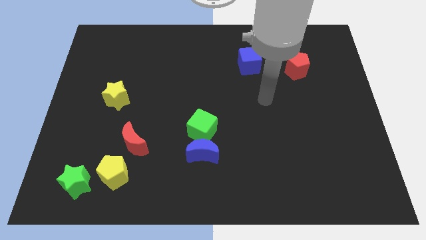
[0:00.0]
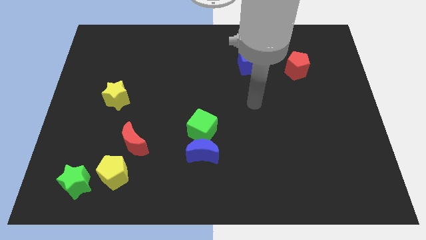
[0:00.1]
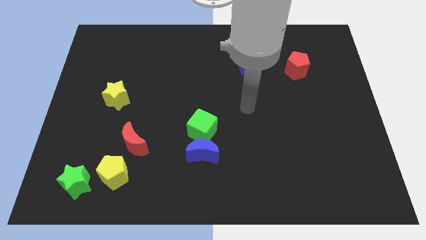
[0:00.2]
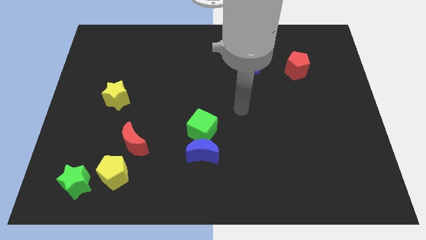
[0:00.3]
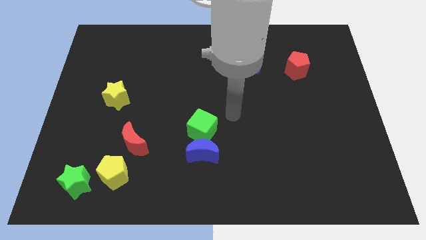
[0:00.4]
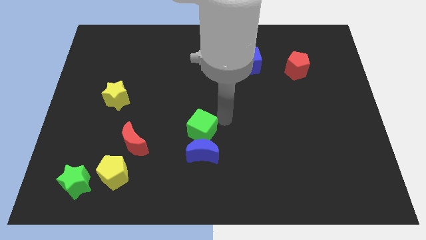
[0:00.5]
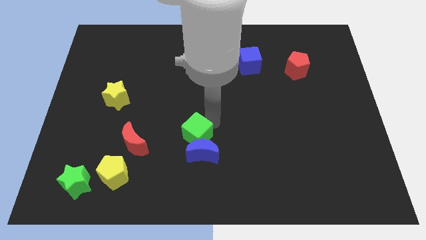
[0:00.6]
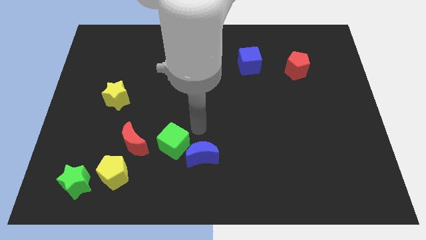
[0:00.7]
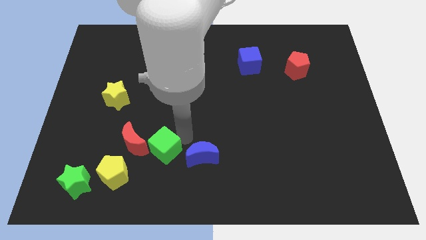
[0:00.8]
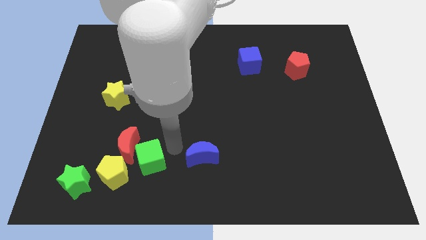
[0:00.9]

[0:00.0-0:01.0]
separate the blue moon from the green cube

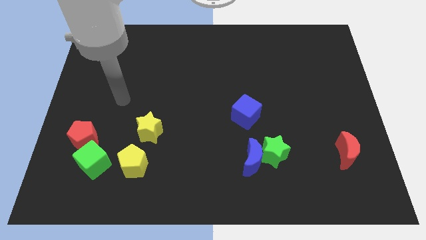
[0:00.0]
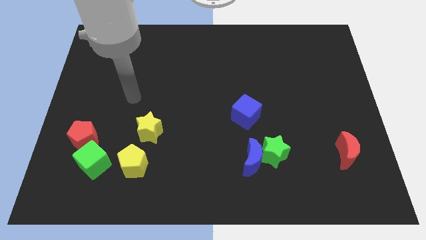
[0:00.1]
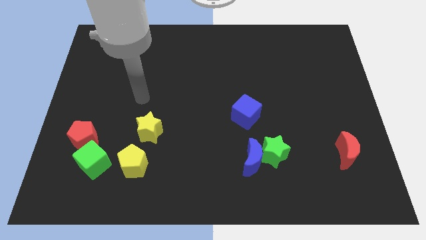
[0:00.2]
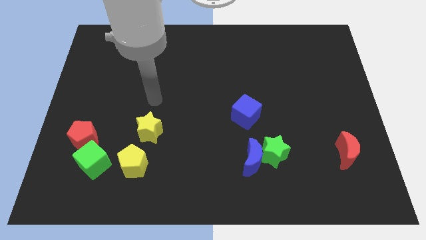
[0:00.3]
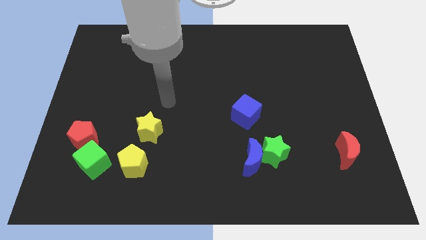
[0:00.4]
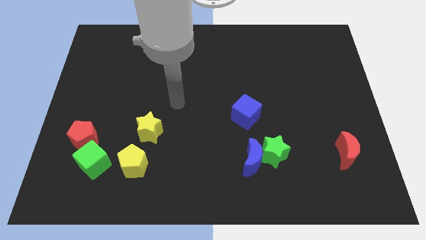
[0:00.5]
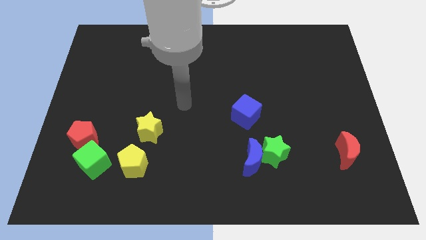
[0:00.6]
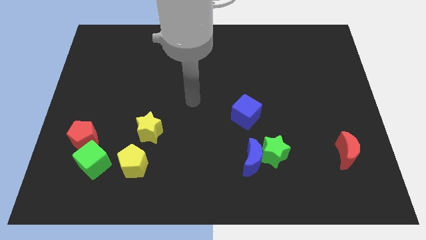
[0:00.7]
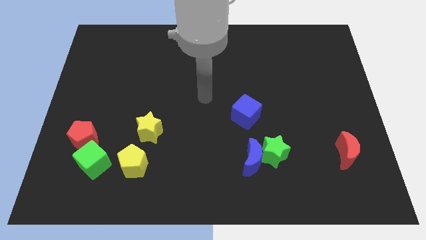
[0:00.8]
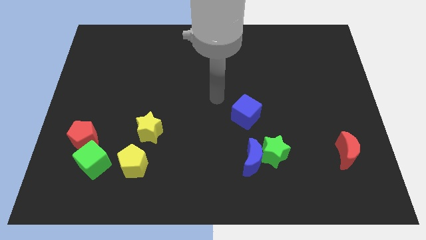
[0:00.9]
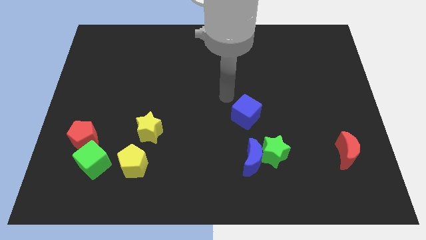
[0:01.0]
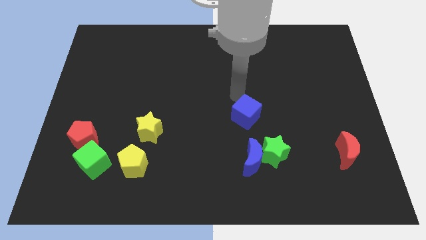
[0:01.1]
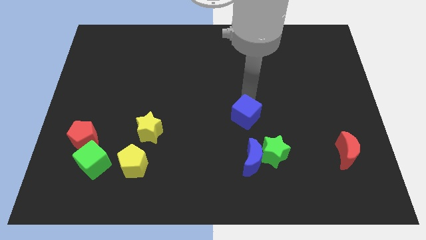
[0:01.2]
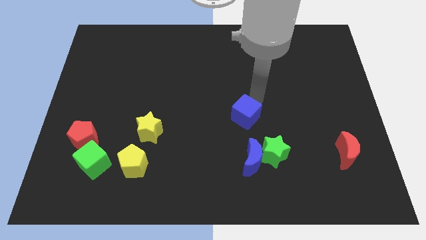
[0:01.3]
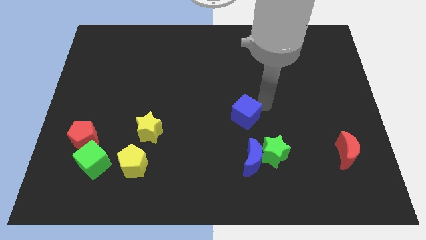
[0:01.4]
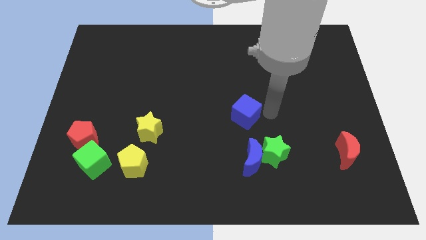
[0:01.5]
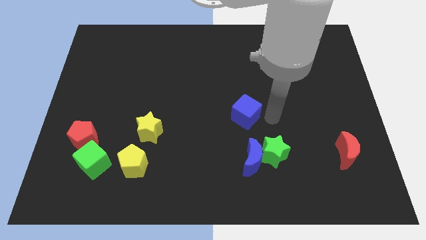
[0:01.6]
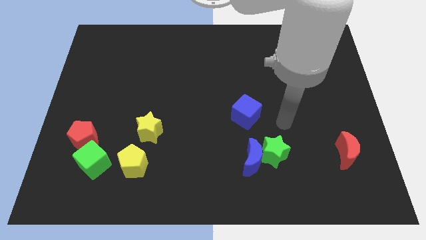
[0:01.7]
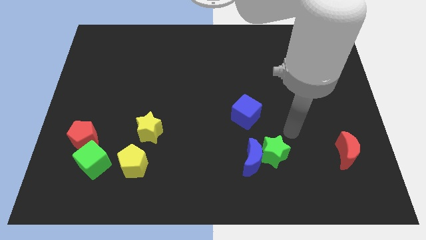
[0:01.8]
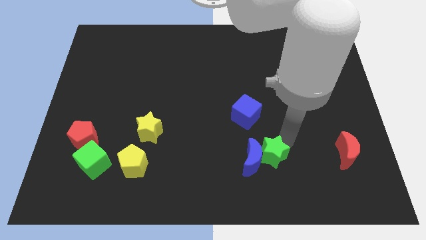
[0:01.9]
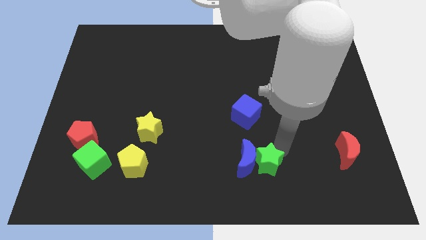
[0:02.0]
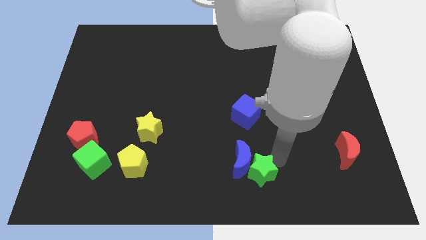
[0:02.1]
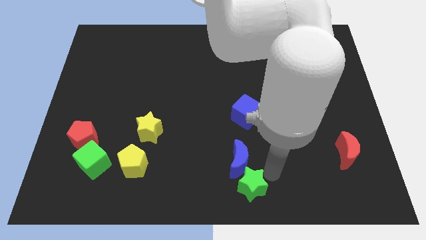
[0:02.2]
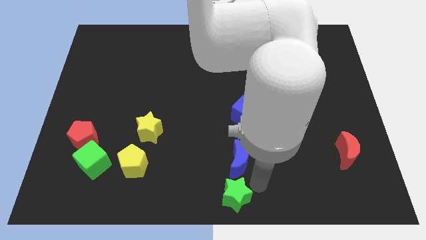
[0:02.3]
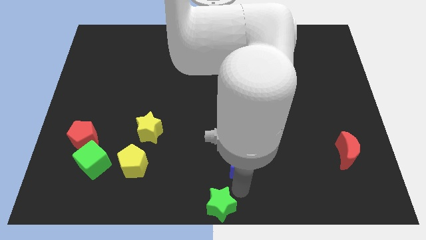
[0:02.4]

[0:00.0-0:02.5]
pull the blue moon apart from the green star

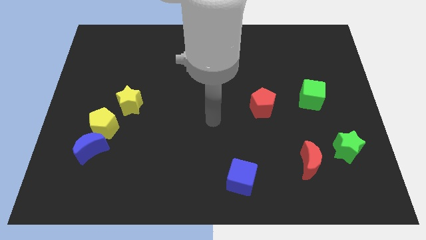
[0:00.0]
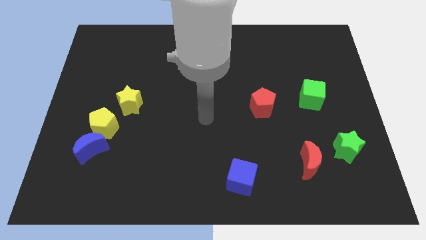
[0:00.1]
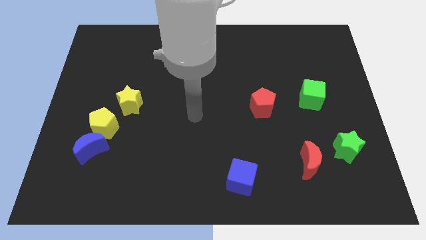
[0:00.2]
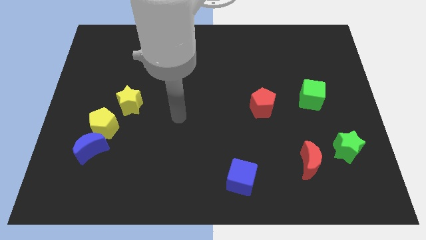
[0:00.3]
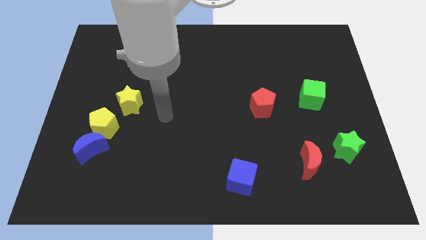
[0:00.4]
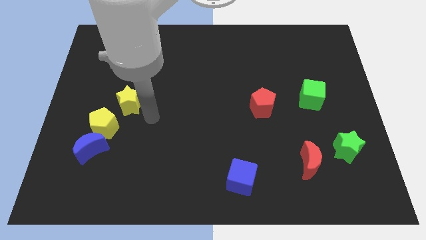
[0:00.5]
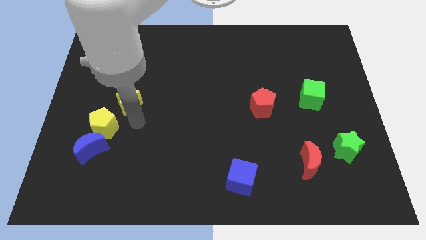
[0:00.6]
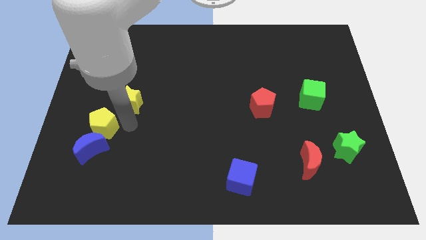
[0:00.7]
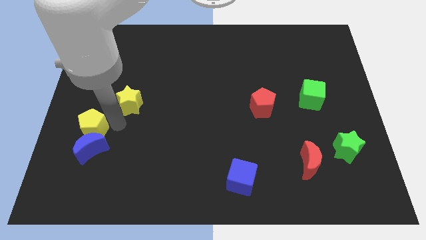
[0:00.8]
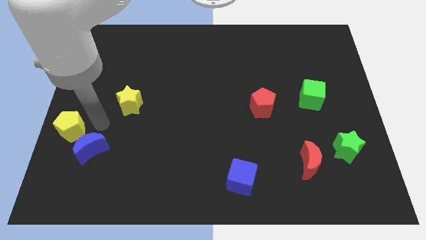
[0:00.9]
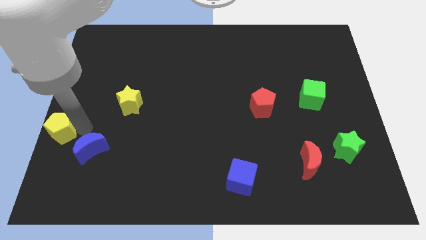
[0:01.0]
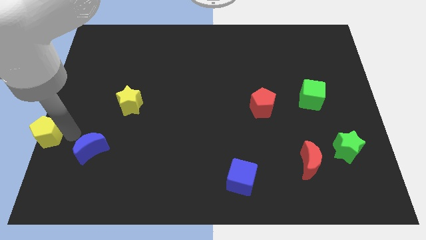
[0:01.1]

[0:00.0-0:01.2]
move the blue moon away from the yellow pentagon

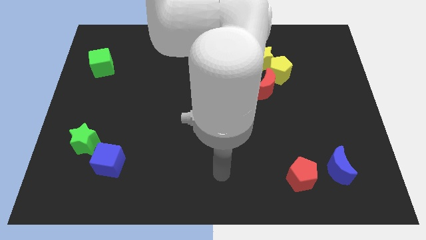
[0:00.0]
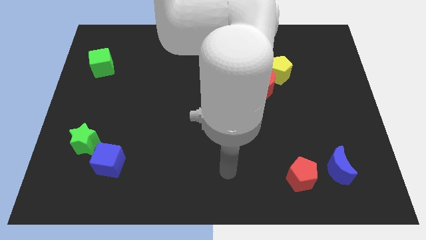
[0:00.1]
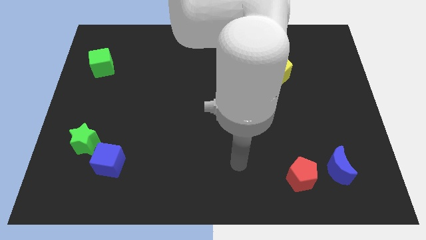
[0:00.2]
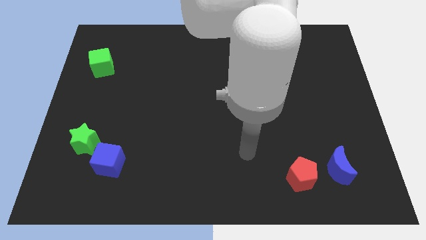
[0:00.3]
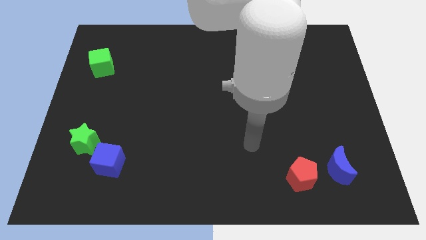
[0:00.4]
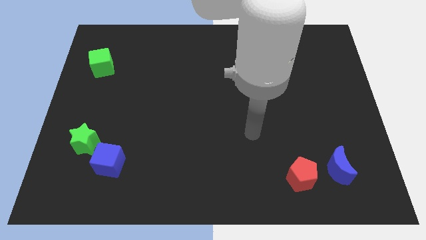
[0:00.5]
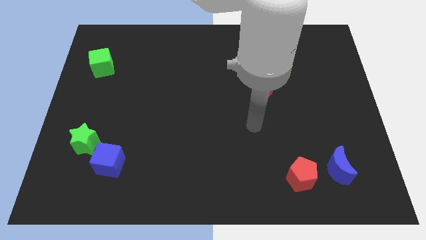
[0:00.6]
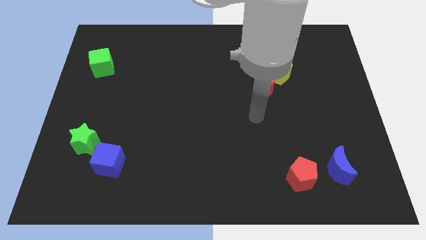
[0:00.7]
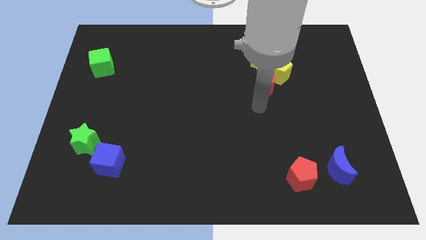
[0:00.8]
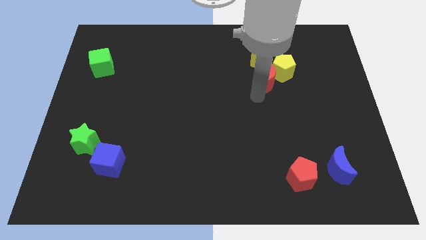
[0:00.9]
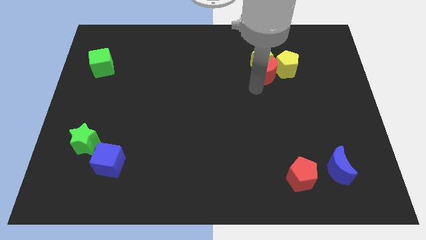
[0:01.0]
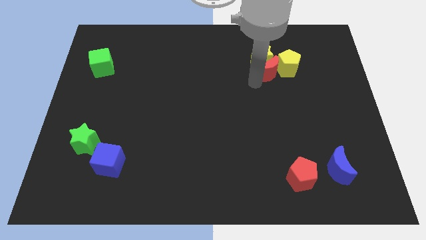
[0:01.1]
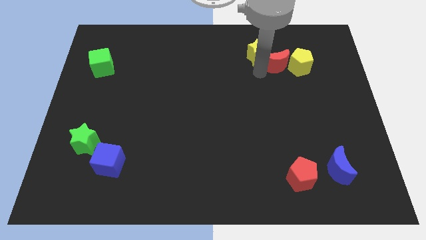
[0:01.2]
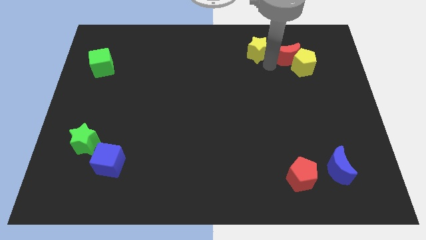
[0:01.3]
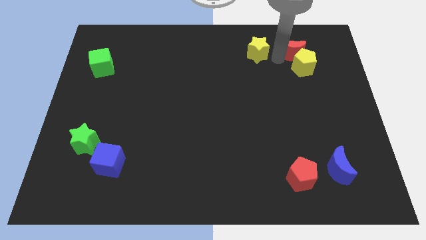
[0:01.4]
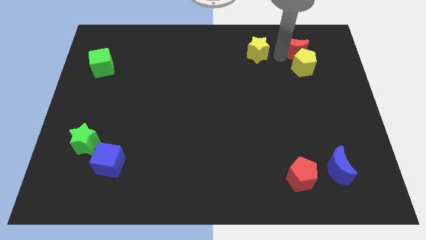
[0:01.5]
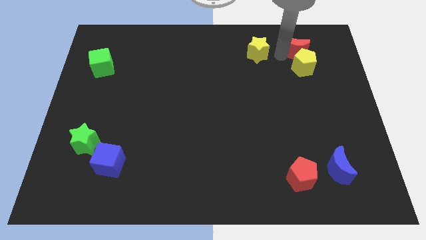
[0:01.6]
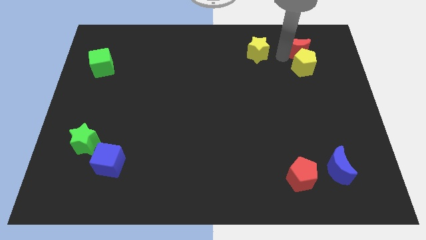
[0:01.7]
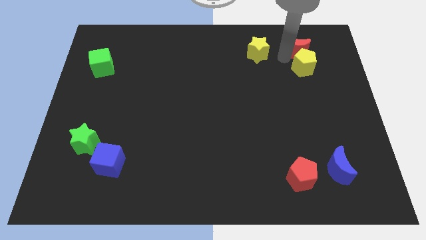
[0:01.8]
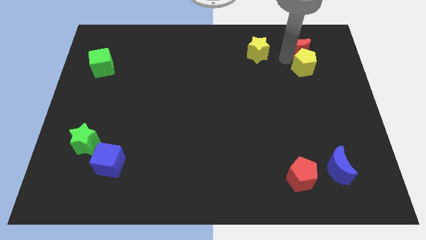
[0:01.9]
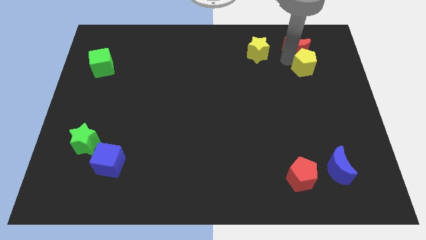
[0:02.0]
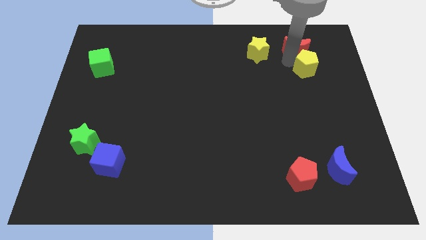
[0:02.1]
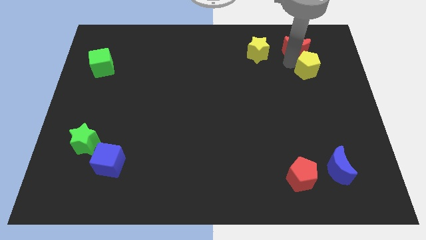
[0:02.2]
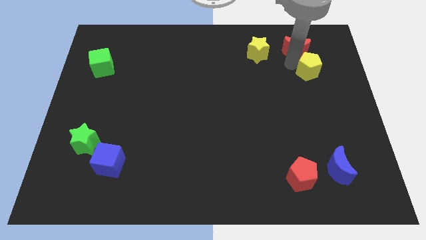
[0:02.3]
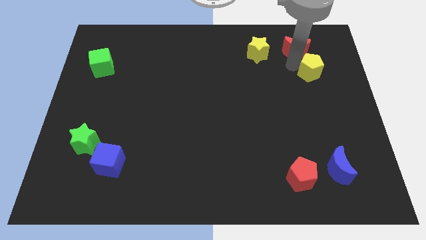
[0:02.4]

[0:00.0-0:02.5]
separate the yellow pentagon from the yellow star and red moon

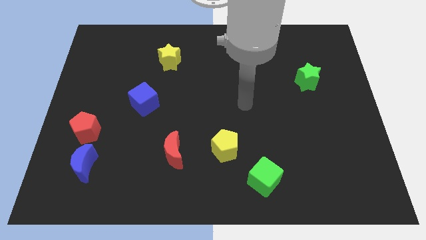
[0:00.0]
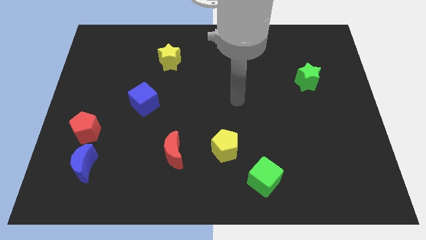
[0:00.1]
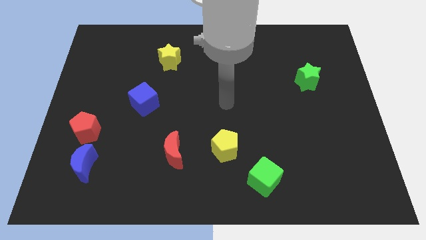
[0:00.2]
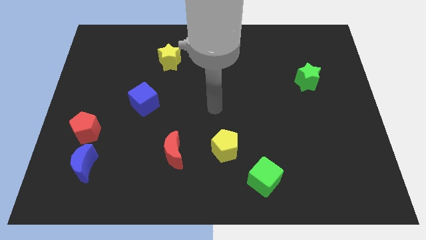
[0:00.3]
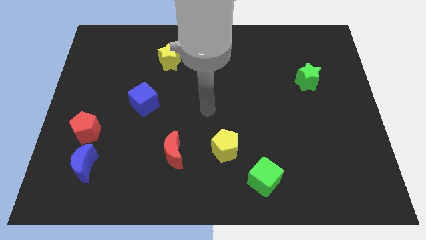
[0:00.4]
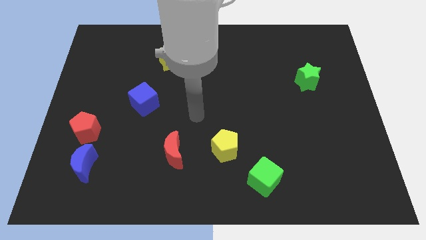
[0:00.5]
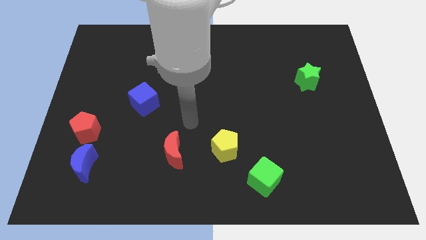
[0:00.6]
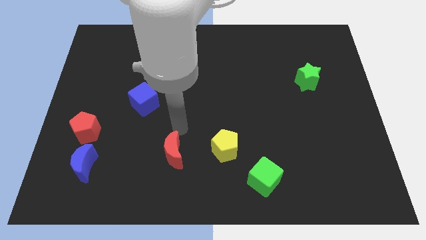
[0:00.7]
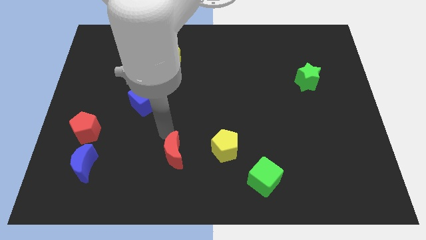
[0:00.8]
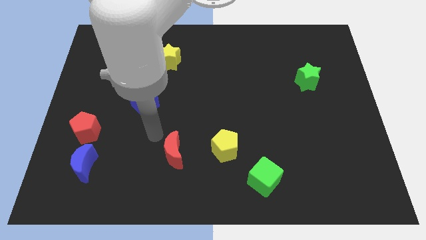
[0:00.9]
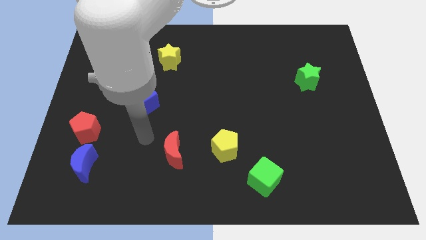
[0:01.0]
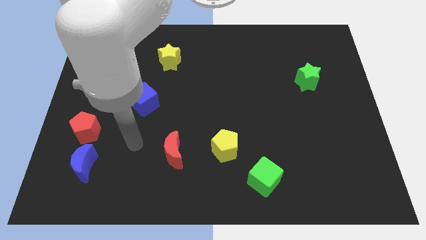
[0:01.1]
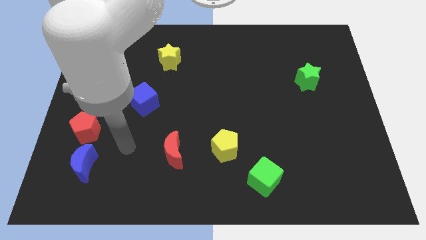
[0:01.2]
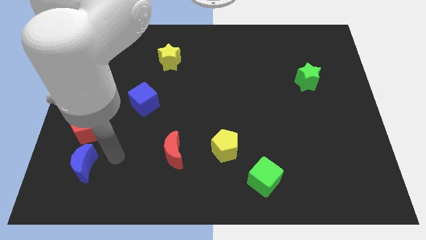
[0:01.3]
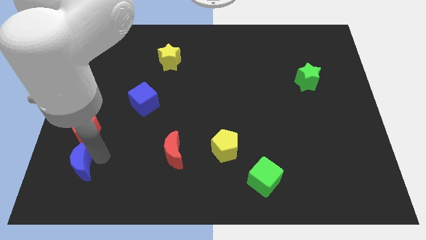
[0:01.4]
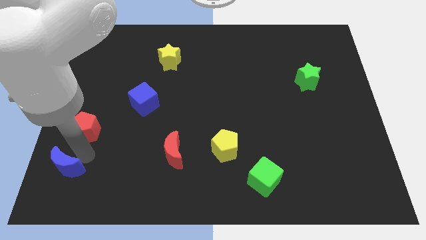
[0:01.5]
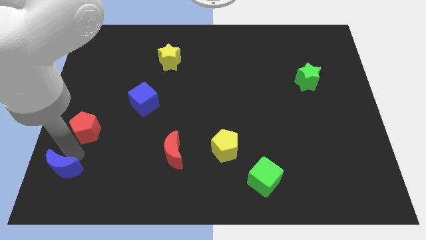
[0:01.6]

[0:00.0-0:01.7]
move the red pentagon away from the blue moon

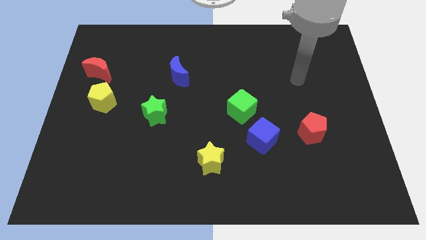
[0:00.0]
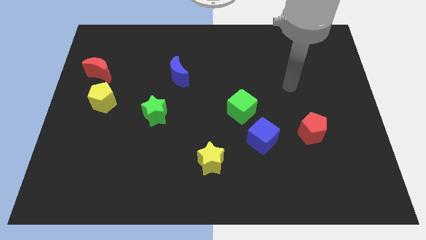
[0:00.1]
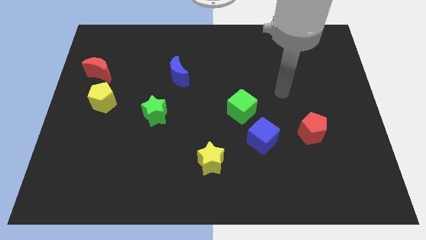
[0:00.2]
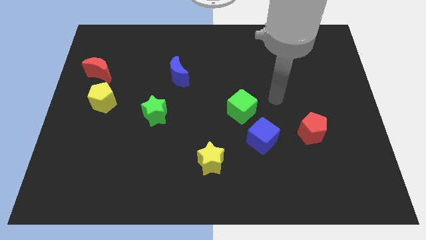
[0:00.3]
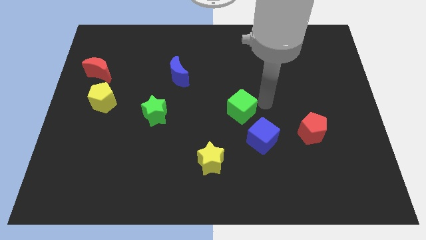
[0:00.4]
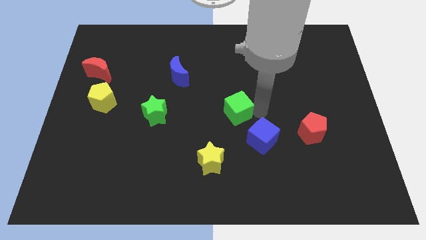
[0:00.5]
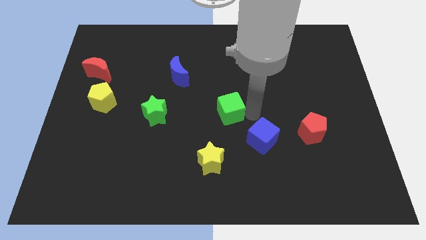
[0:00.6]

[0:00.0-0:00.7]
pull the blue cube apart from the green cube
